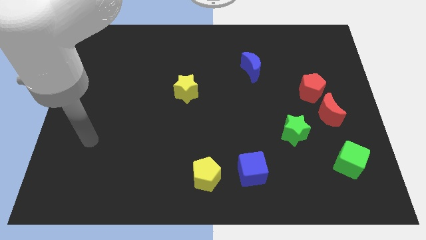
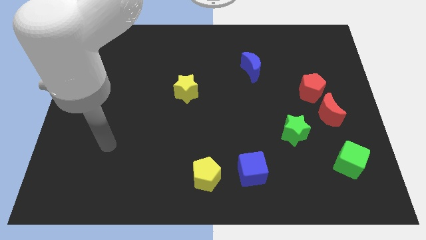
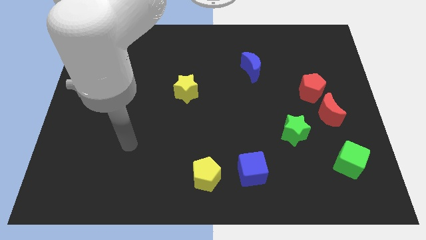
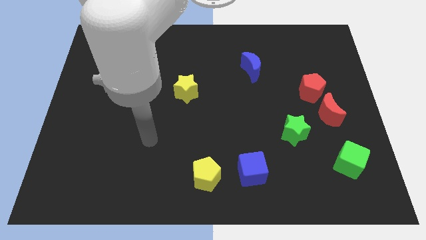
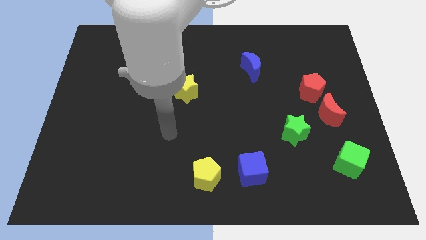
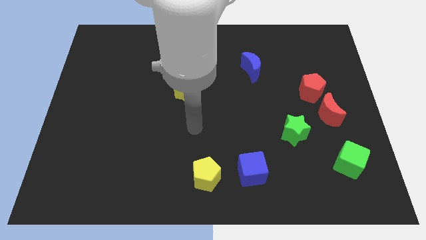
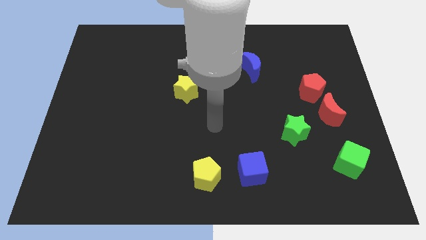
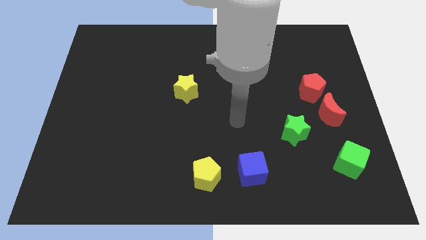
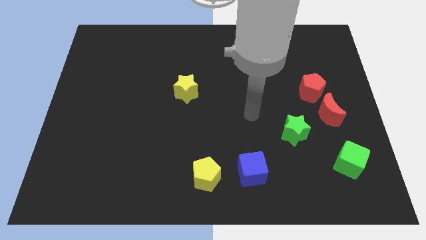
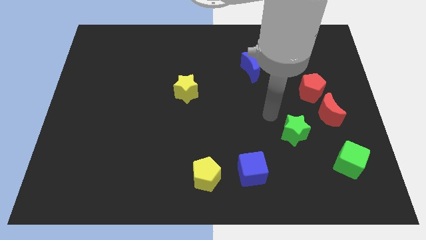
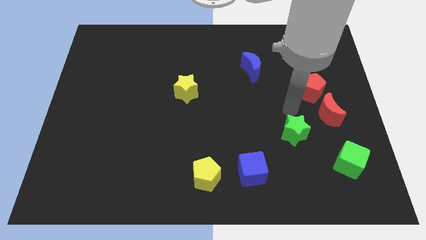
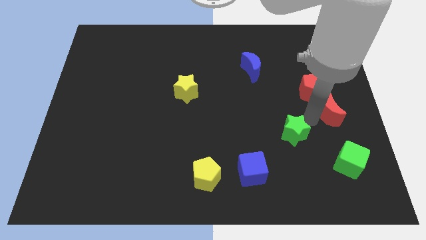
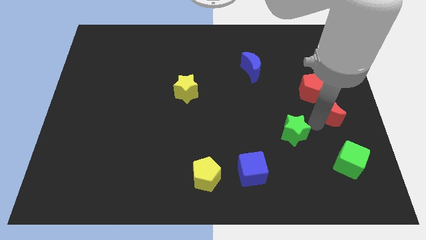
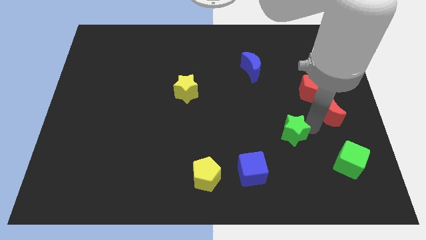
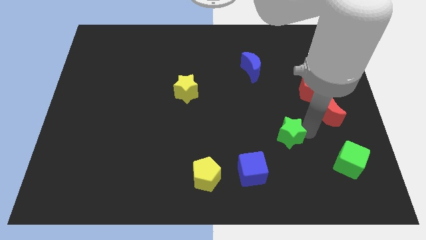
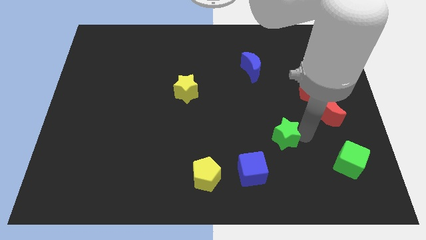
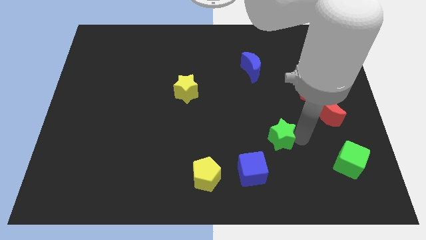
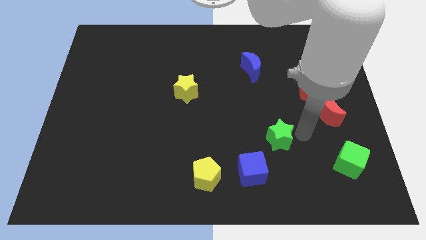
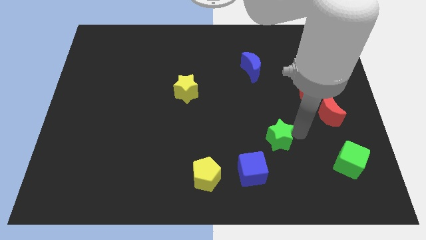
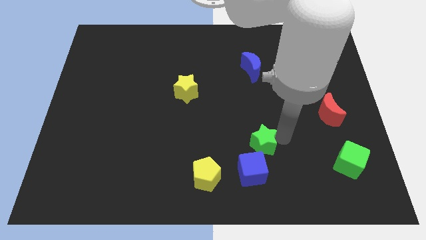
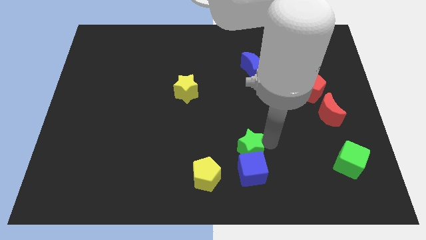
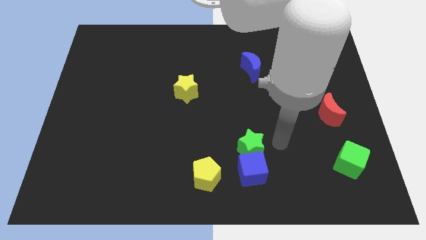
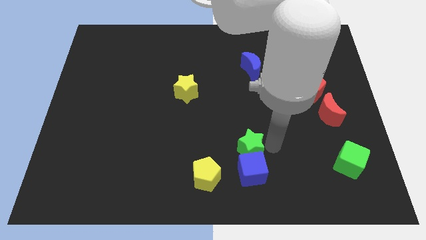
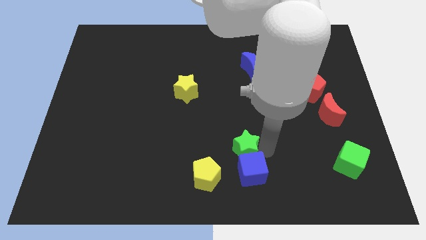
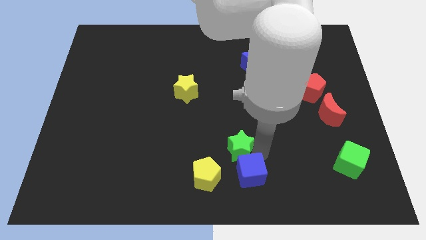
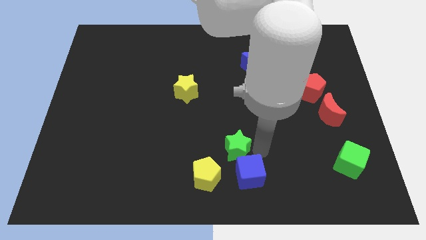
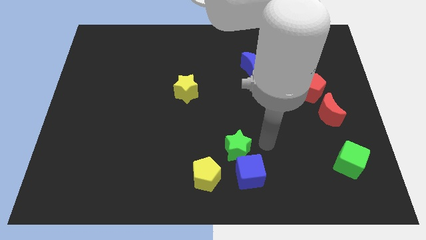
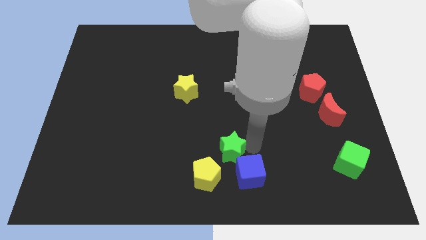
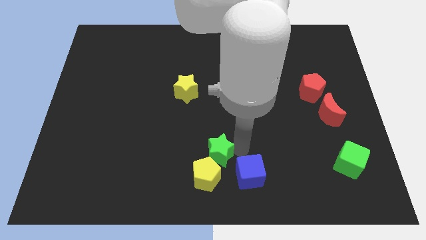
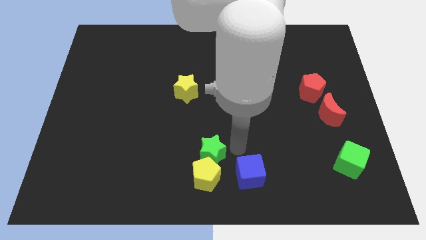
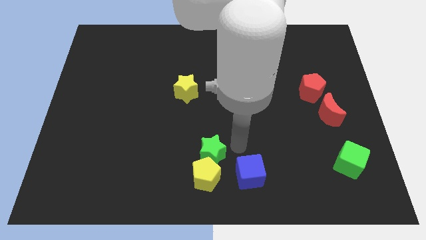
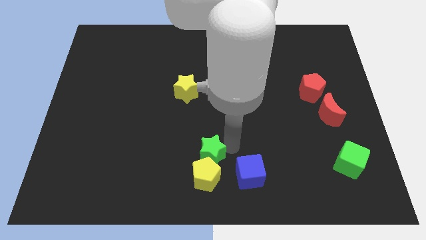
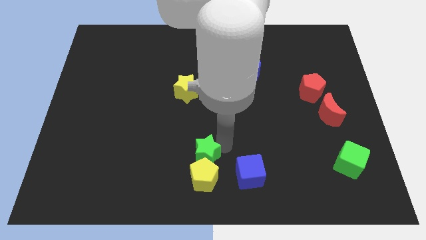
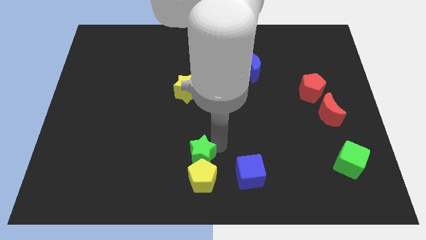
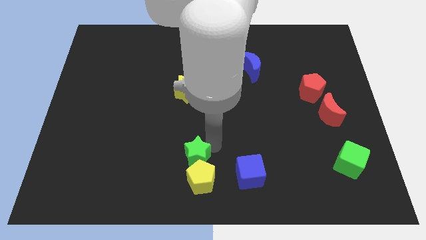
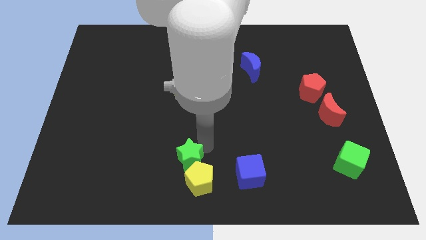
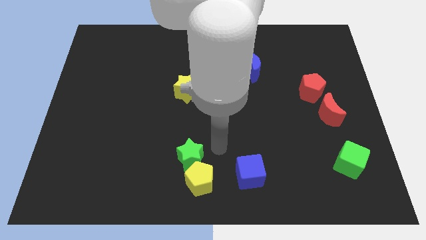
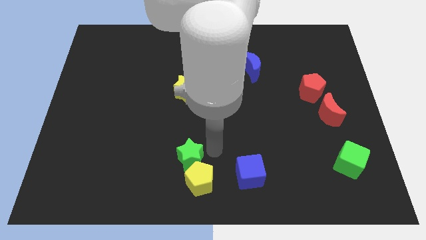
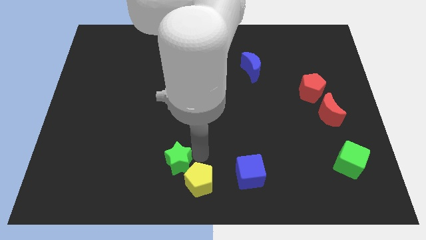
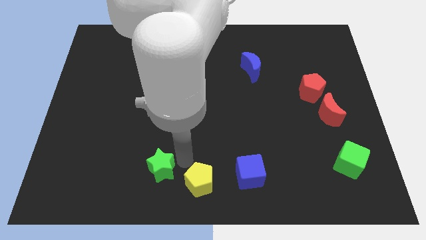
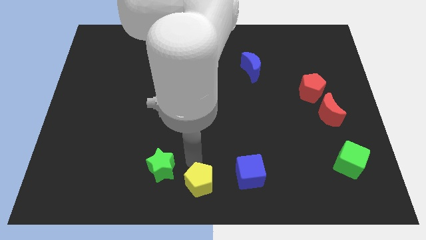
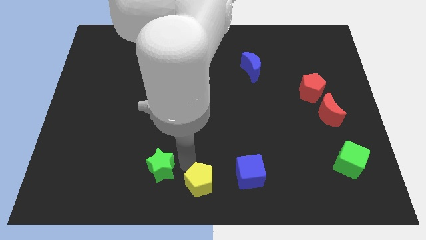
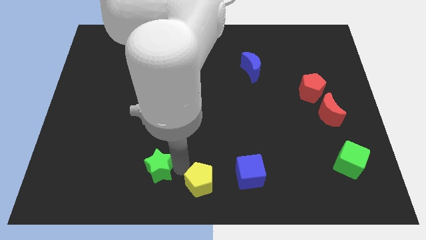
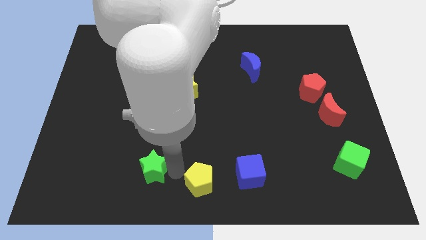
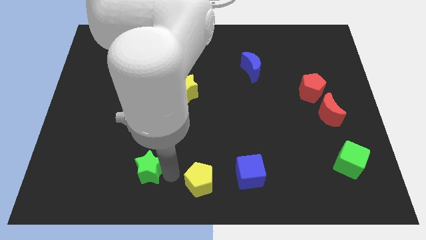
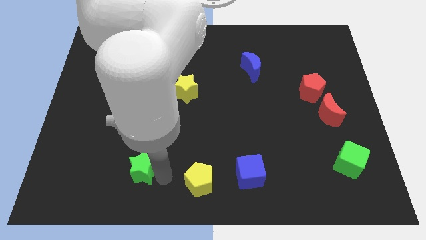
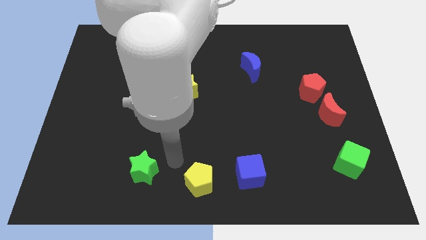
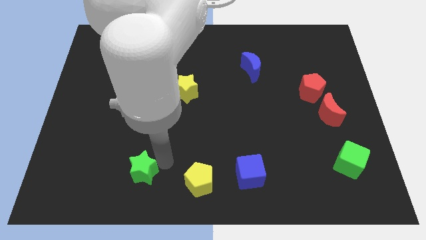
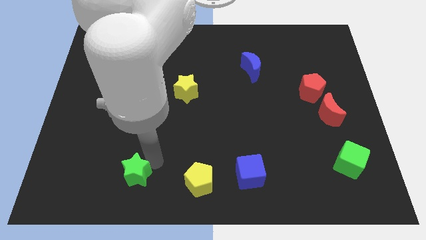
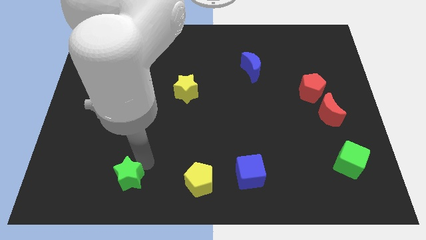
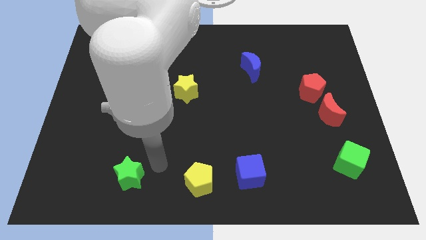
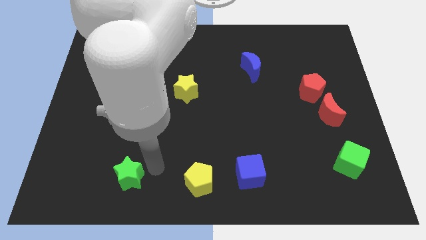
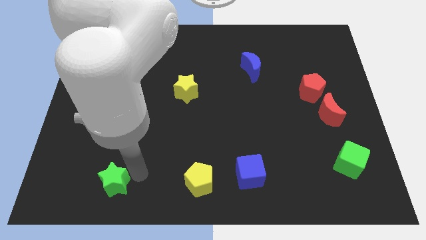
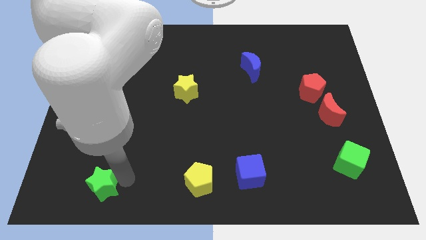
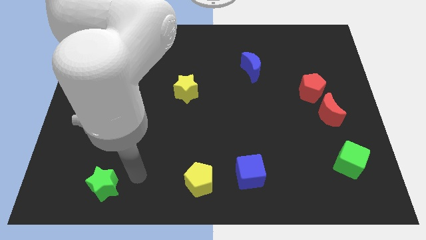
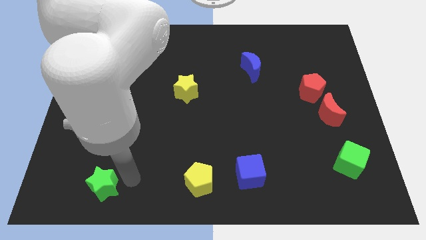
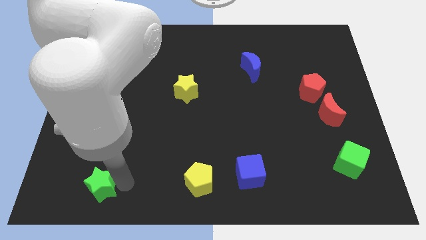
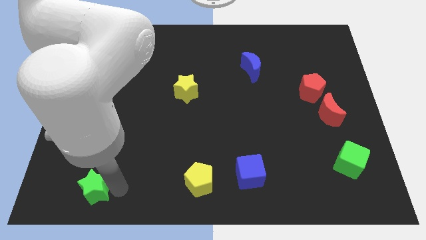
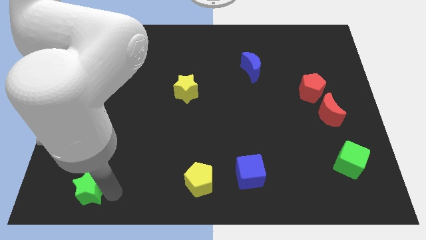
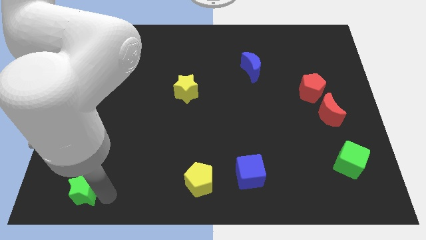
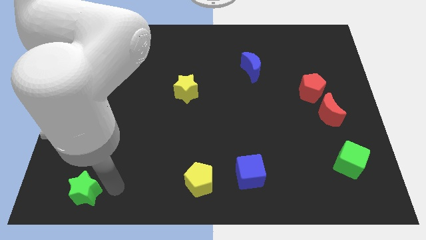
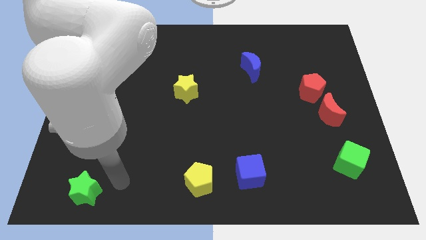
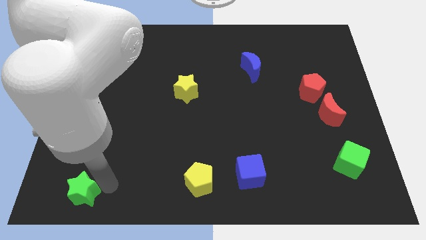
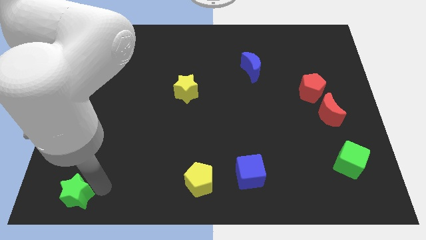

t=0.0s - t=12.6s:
push the green star to the bottom left corner
